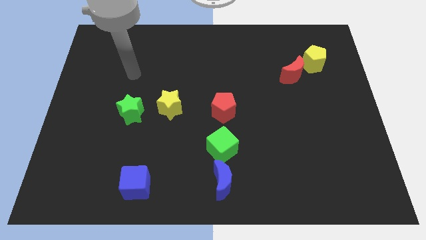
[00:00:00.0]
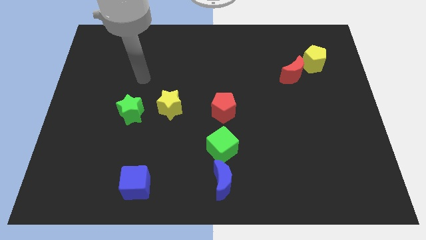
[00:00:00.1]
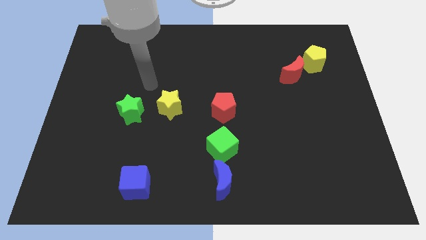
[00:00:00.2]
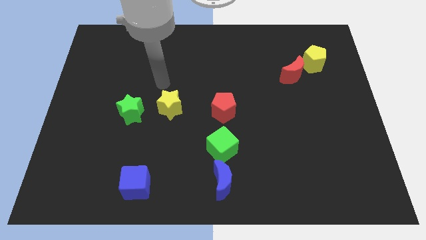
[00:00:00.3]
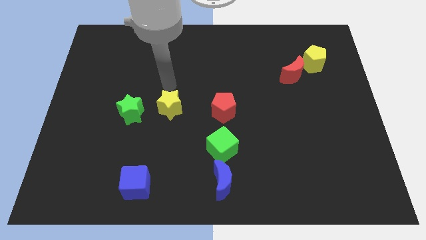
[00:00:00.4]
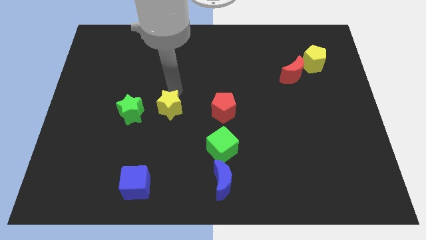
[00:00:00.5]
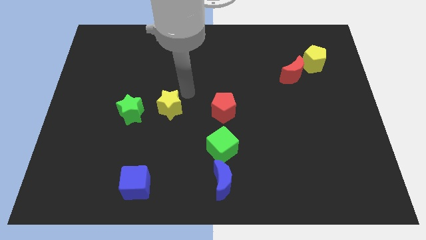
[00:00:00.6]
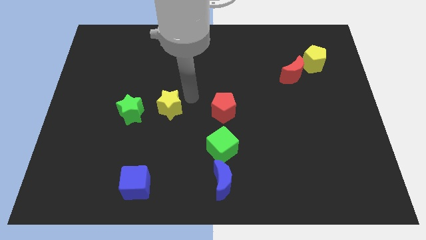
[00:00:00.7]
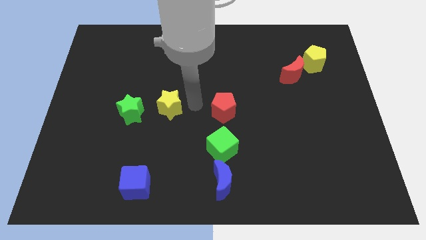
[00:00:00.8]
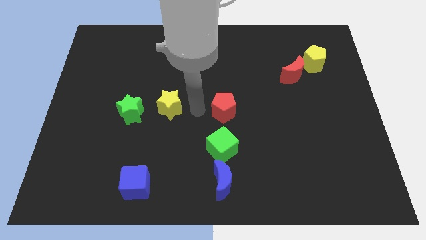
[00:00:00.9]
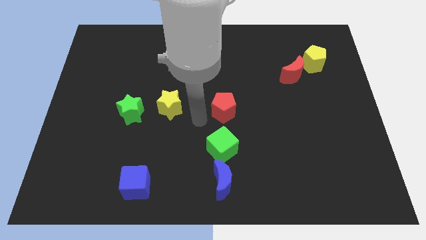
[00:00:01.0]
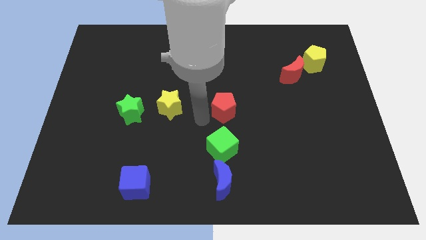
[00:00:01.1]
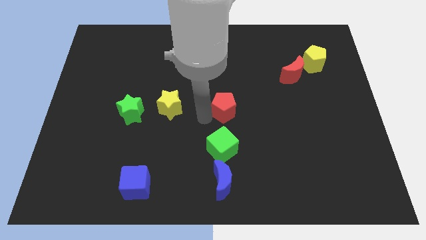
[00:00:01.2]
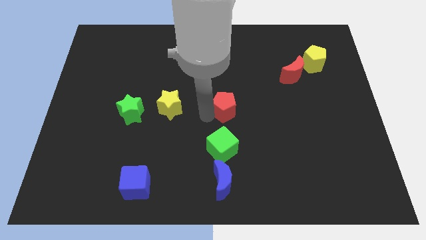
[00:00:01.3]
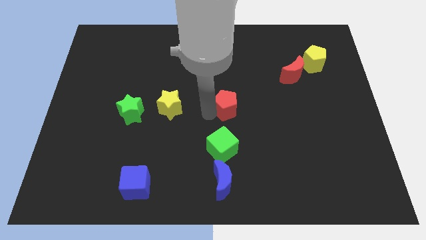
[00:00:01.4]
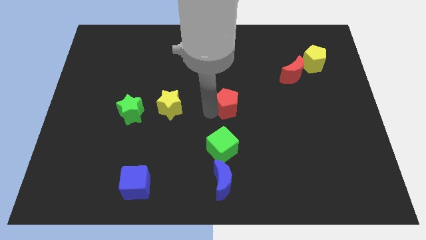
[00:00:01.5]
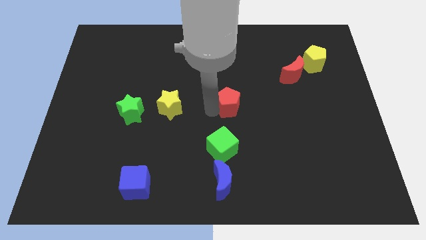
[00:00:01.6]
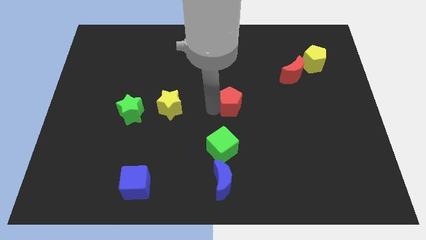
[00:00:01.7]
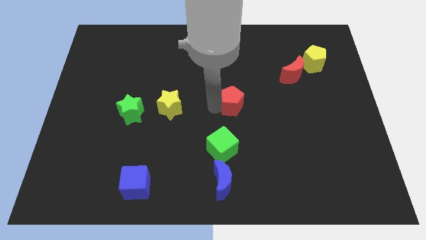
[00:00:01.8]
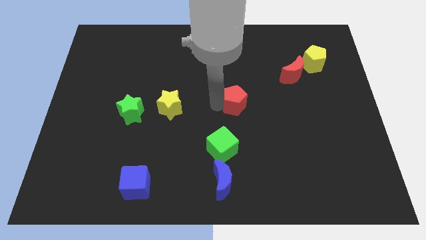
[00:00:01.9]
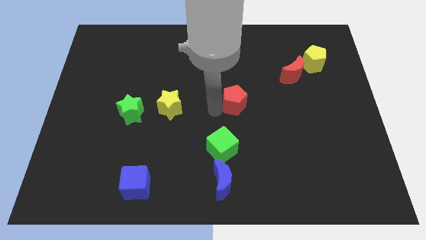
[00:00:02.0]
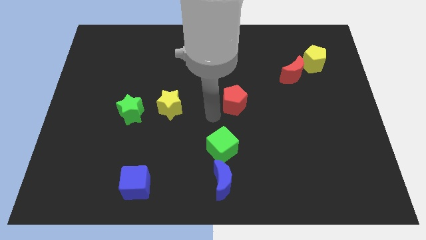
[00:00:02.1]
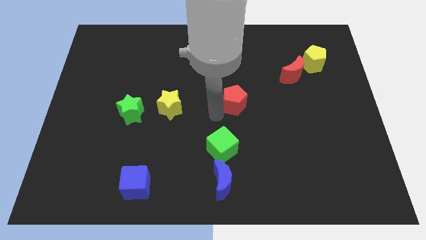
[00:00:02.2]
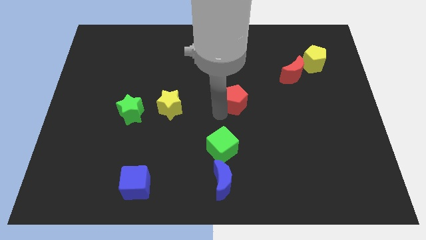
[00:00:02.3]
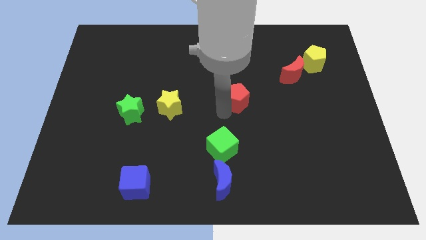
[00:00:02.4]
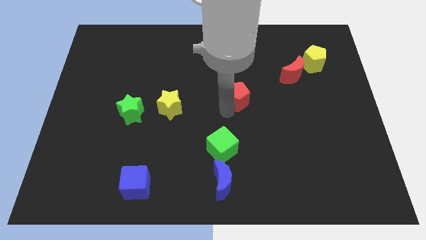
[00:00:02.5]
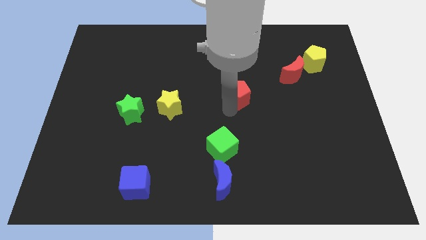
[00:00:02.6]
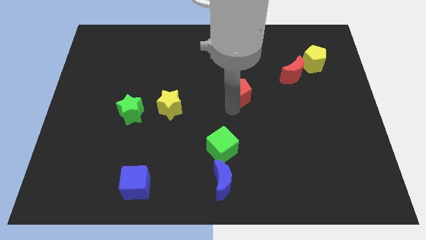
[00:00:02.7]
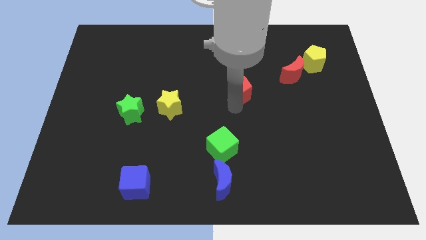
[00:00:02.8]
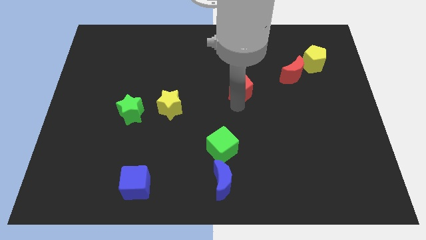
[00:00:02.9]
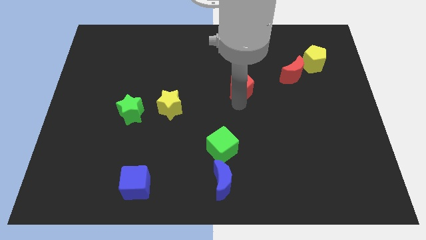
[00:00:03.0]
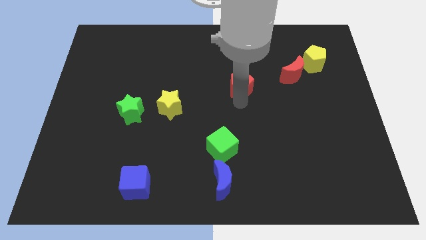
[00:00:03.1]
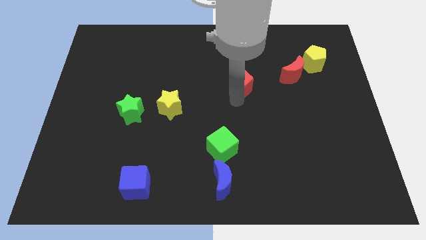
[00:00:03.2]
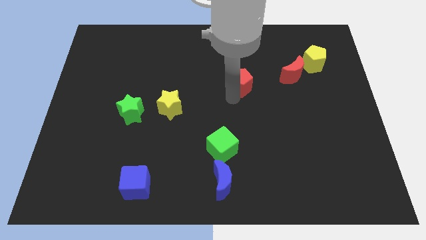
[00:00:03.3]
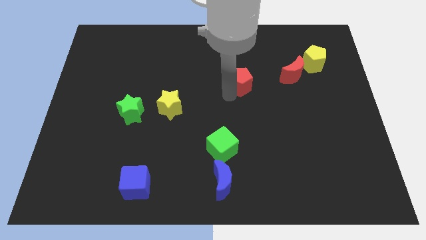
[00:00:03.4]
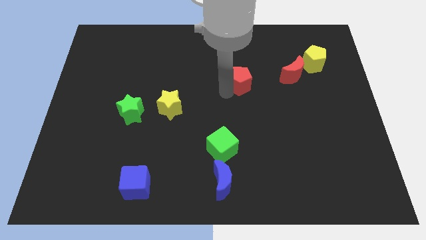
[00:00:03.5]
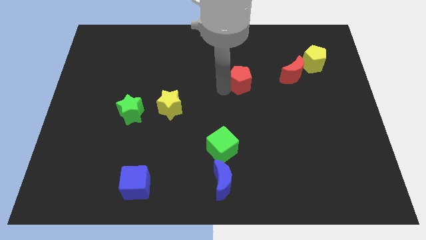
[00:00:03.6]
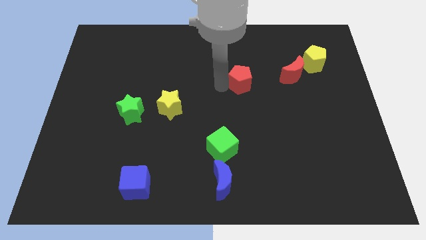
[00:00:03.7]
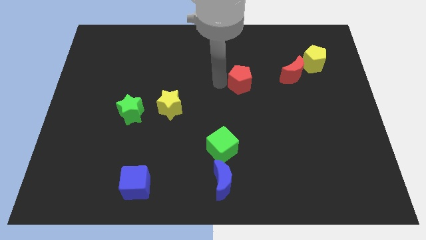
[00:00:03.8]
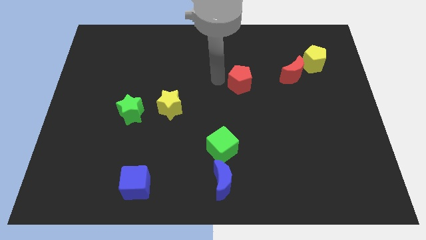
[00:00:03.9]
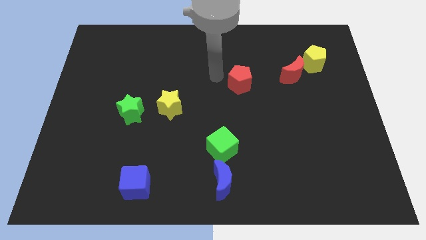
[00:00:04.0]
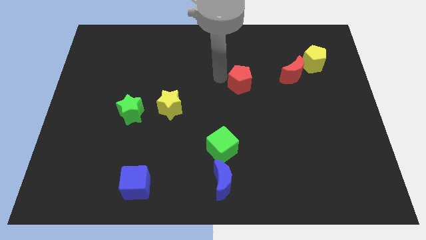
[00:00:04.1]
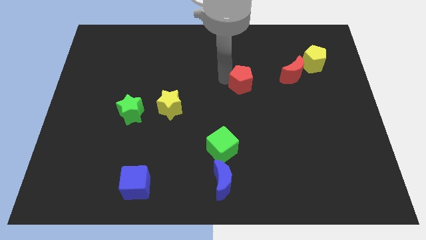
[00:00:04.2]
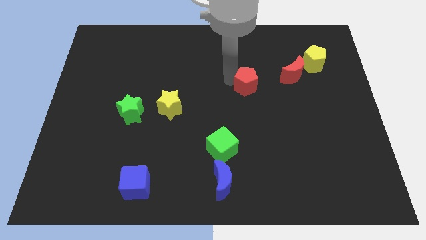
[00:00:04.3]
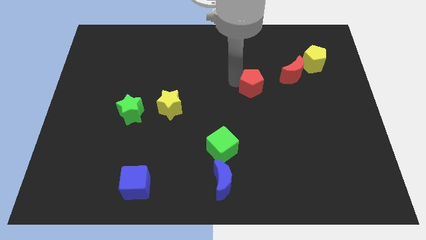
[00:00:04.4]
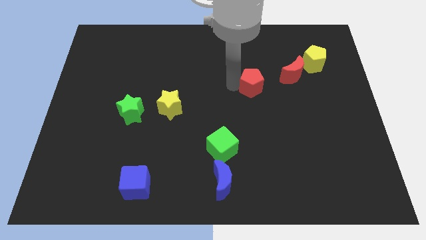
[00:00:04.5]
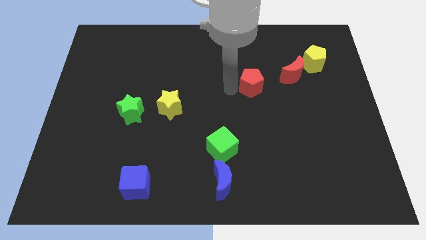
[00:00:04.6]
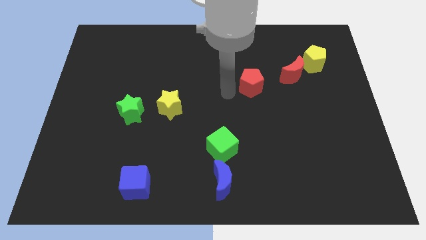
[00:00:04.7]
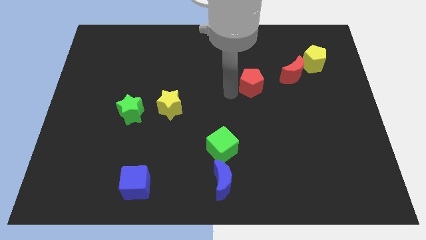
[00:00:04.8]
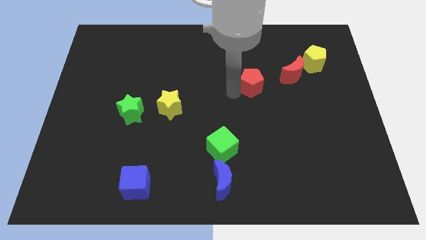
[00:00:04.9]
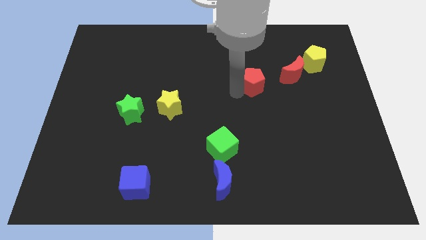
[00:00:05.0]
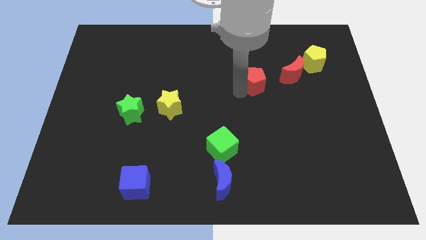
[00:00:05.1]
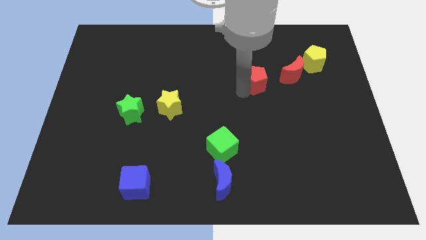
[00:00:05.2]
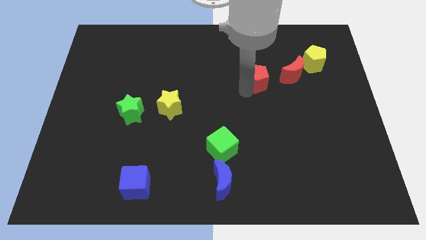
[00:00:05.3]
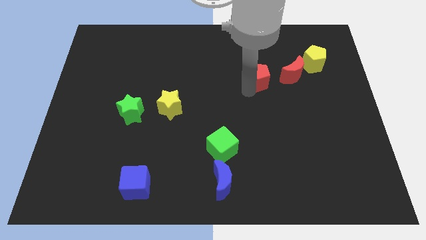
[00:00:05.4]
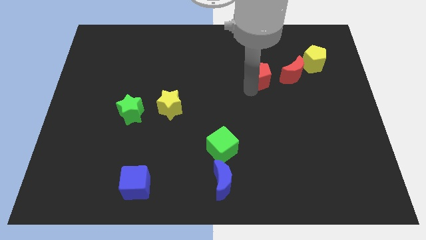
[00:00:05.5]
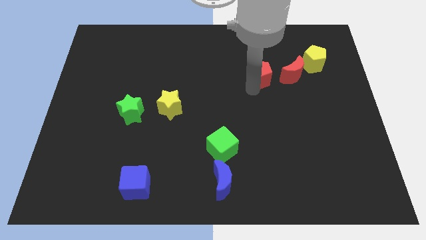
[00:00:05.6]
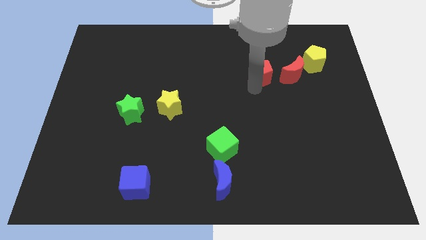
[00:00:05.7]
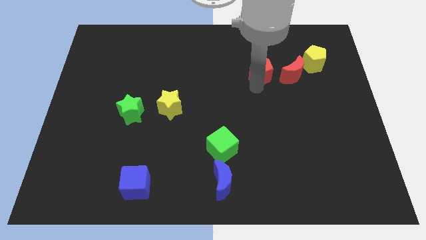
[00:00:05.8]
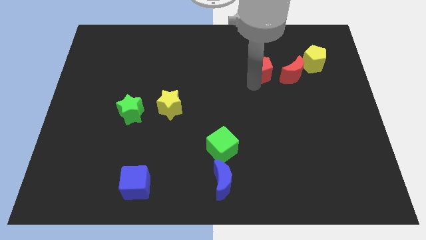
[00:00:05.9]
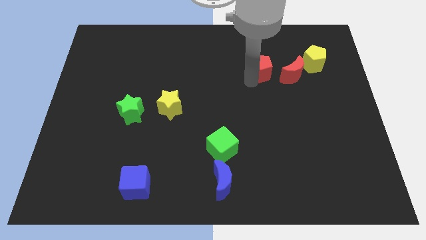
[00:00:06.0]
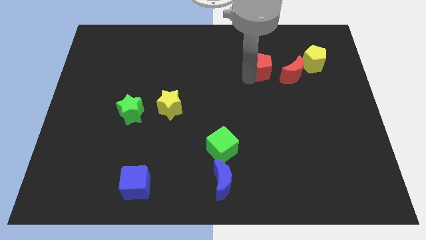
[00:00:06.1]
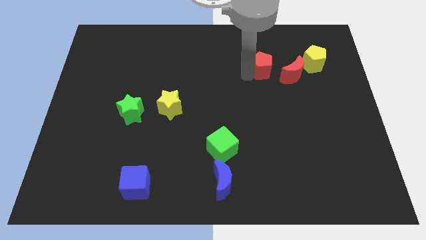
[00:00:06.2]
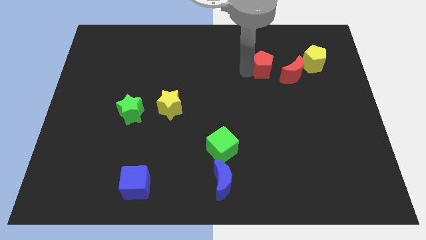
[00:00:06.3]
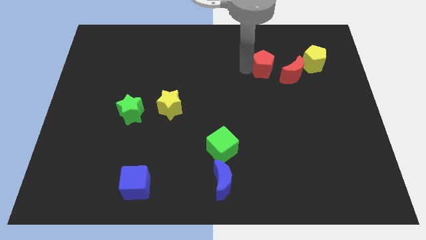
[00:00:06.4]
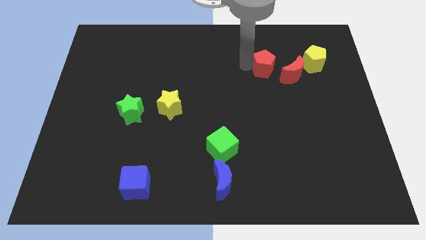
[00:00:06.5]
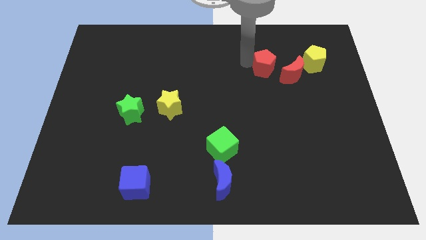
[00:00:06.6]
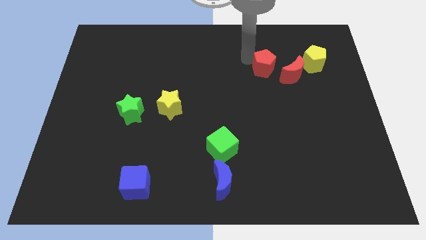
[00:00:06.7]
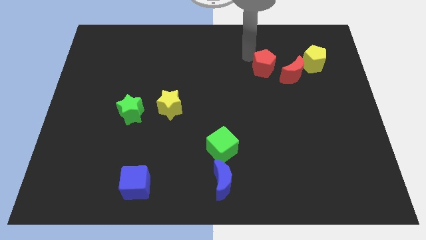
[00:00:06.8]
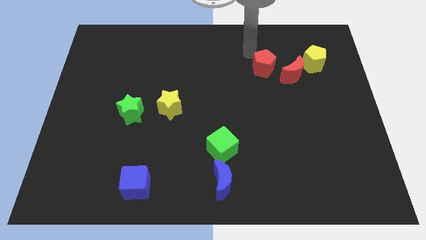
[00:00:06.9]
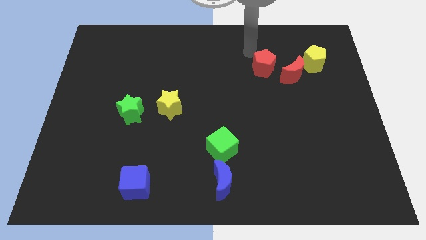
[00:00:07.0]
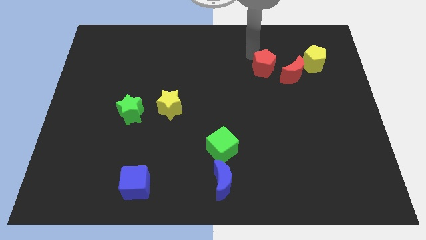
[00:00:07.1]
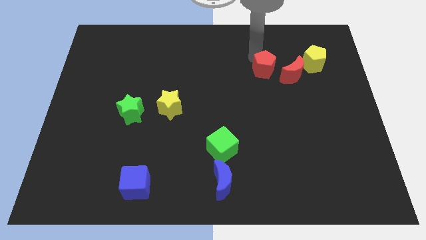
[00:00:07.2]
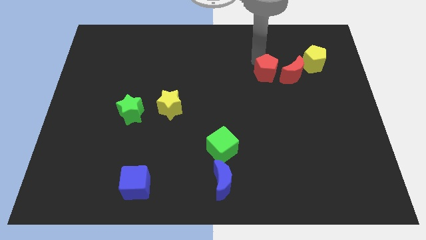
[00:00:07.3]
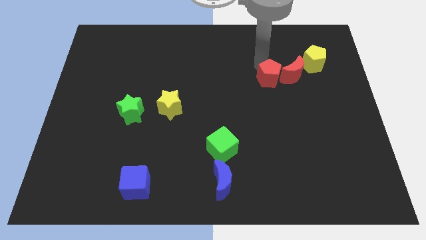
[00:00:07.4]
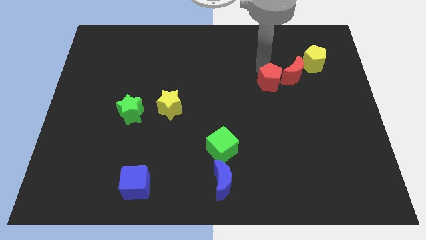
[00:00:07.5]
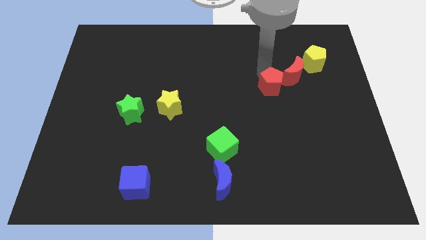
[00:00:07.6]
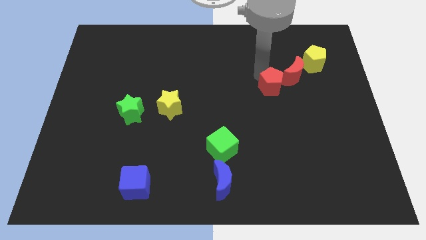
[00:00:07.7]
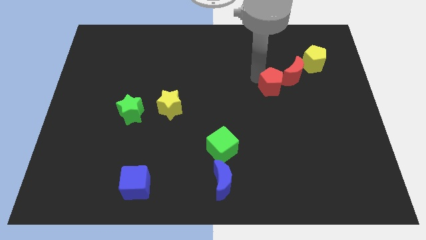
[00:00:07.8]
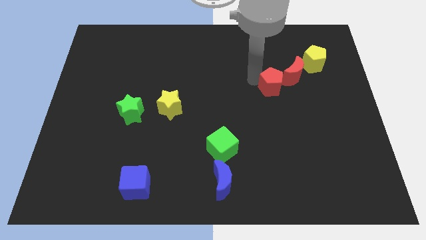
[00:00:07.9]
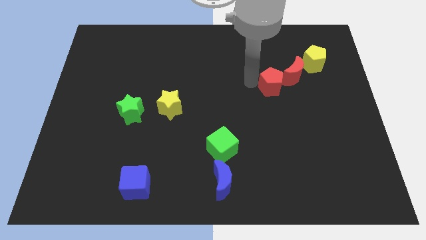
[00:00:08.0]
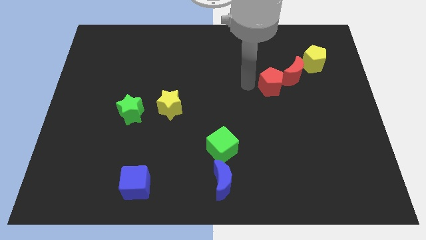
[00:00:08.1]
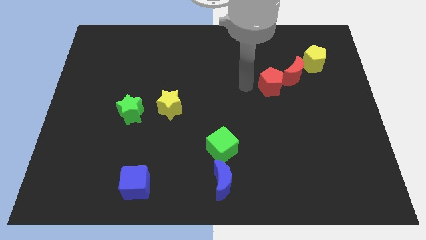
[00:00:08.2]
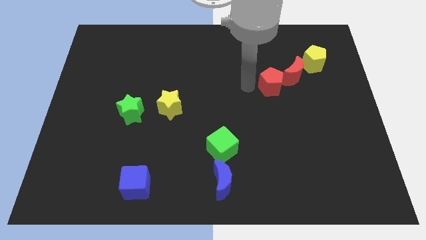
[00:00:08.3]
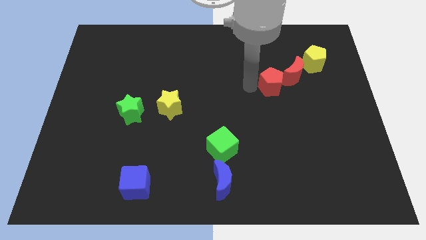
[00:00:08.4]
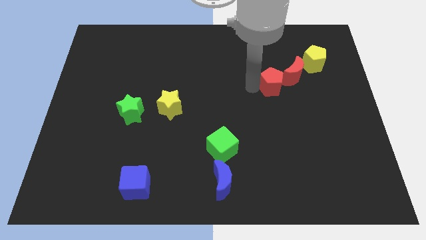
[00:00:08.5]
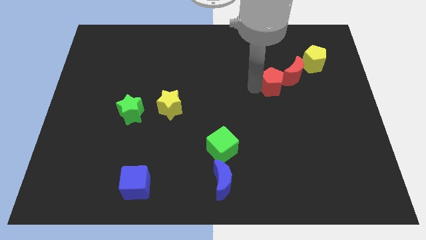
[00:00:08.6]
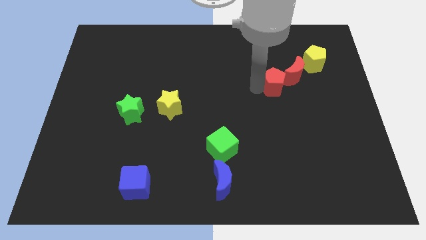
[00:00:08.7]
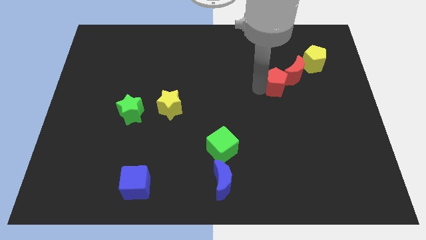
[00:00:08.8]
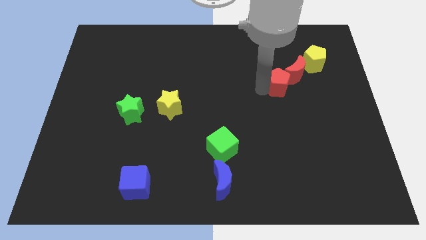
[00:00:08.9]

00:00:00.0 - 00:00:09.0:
slide the red pentagon to the bottom left of the yellow pentagon
